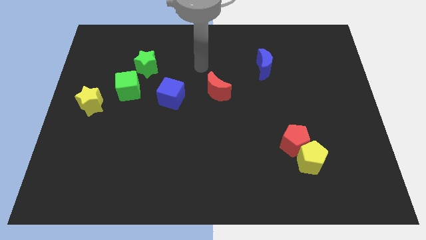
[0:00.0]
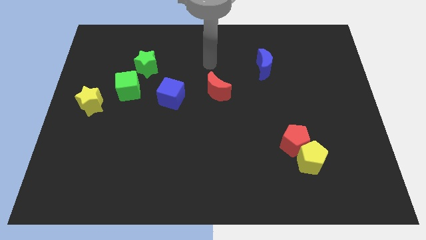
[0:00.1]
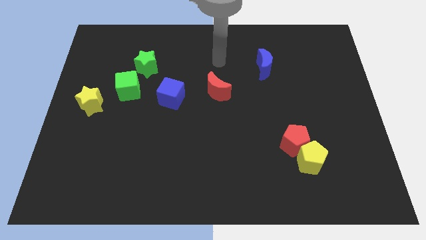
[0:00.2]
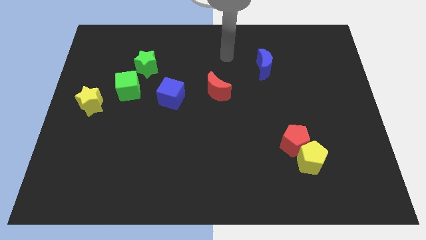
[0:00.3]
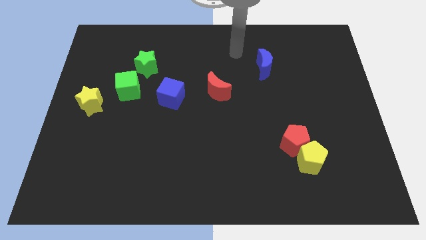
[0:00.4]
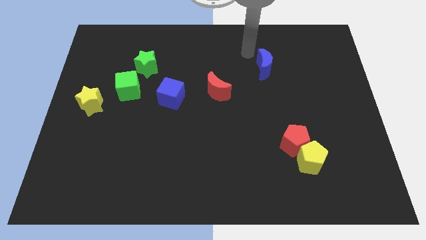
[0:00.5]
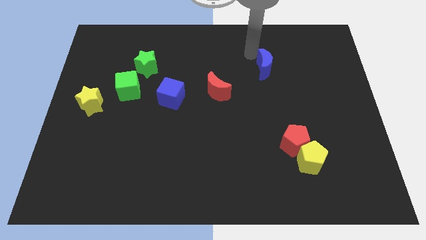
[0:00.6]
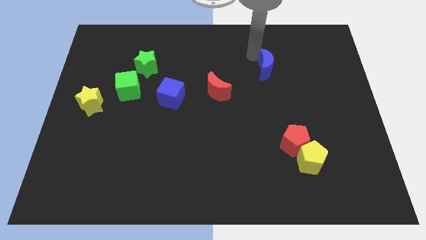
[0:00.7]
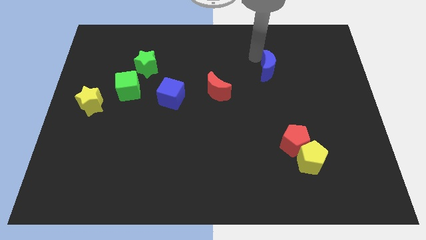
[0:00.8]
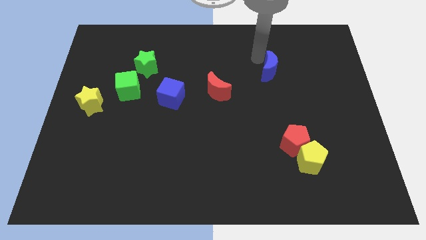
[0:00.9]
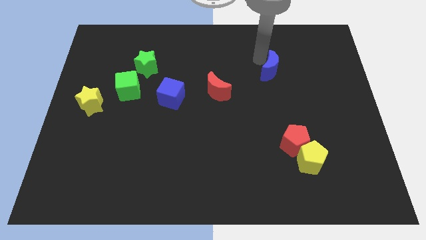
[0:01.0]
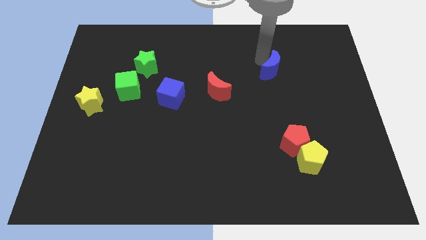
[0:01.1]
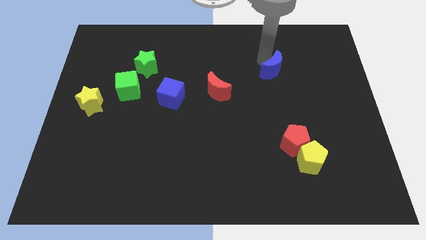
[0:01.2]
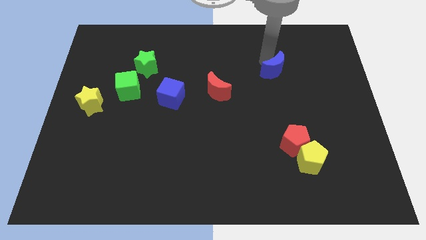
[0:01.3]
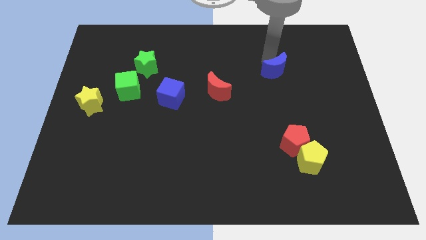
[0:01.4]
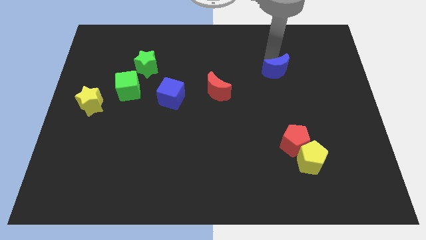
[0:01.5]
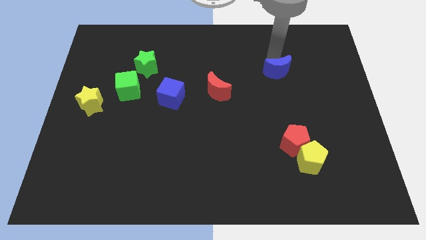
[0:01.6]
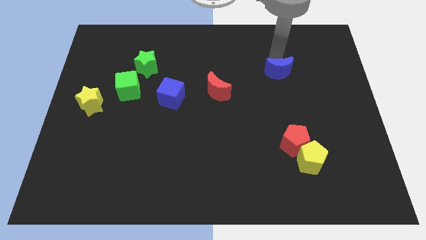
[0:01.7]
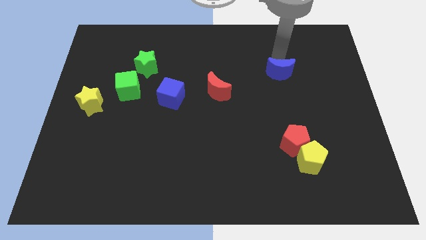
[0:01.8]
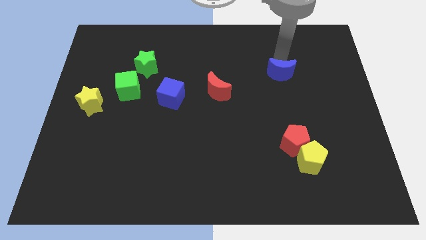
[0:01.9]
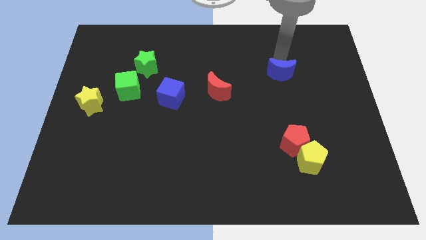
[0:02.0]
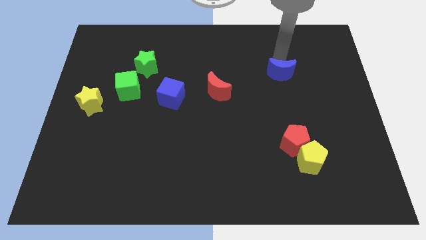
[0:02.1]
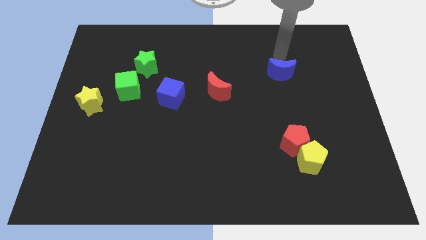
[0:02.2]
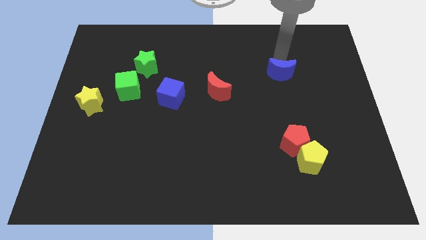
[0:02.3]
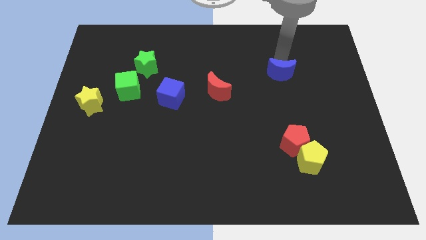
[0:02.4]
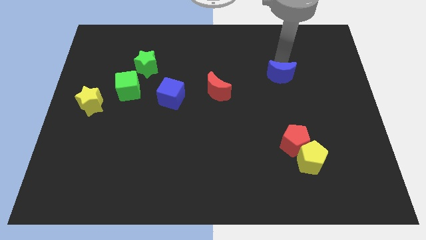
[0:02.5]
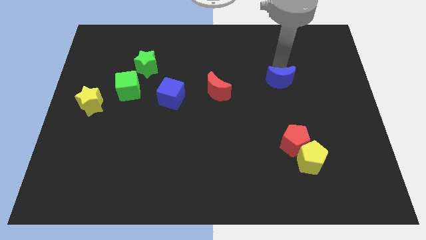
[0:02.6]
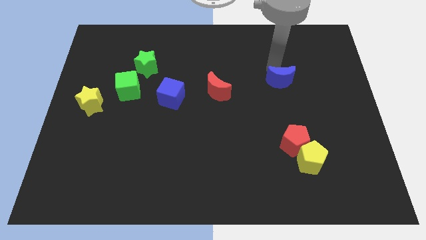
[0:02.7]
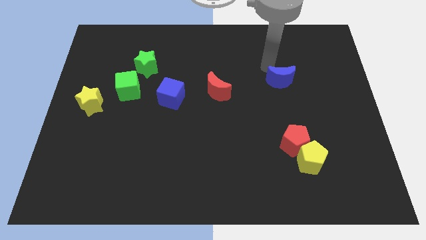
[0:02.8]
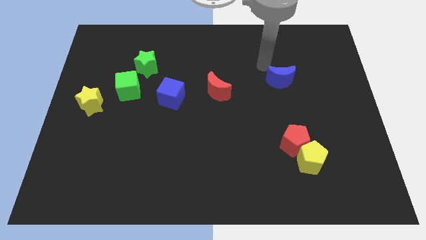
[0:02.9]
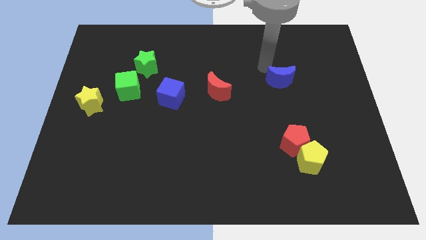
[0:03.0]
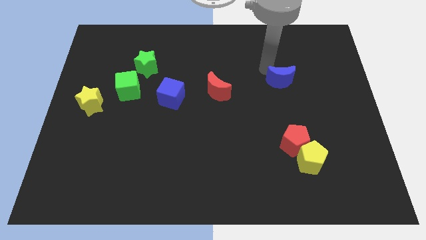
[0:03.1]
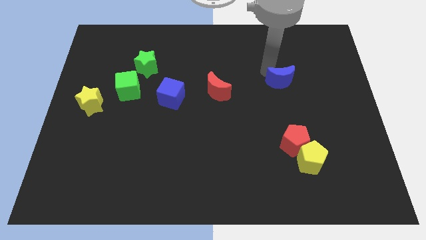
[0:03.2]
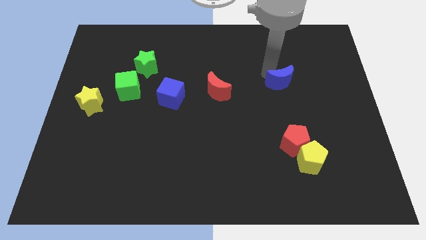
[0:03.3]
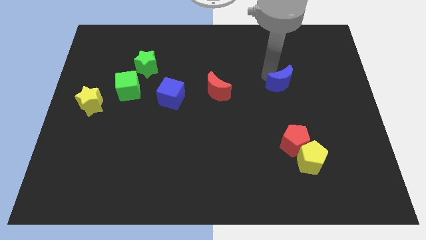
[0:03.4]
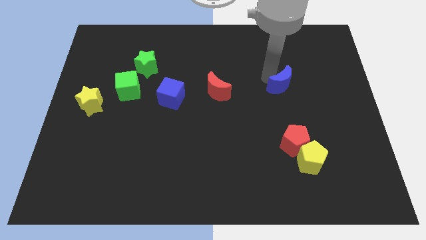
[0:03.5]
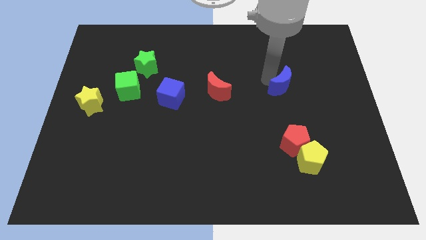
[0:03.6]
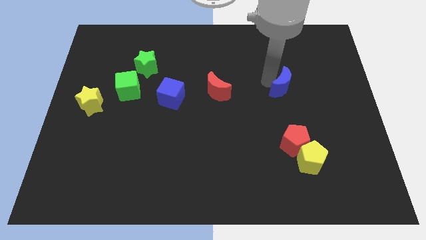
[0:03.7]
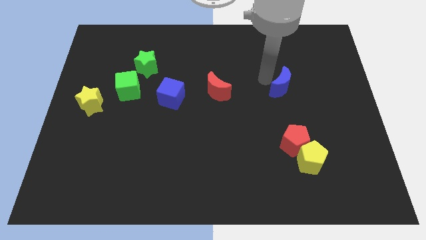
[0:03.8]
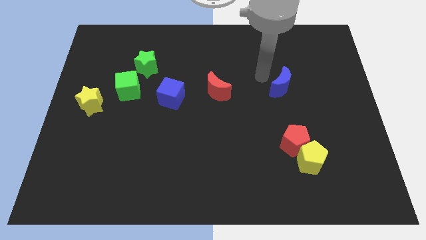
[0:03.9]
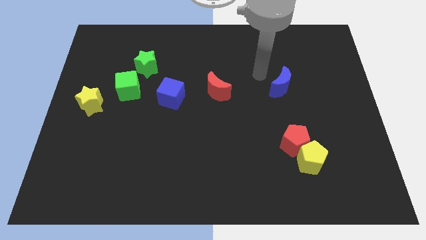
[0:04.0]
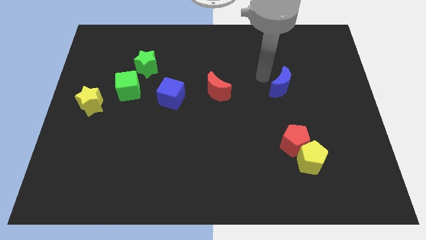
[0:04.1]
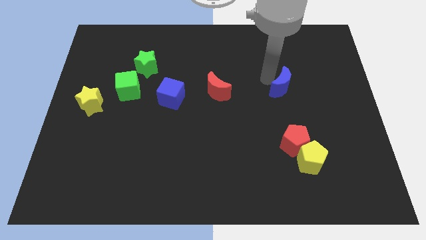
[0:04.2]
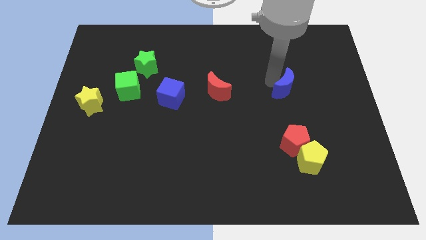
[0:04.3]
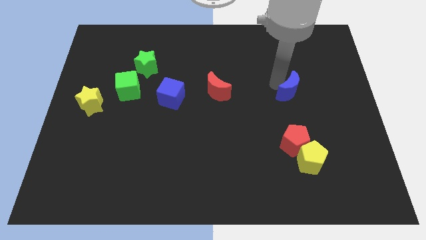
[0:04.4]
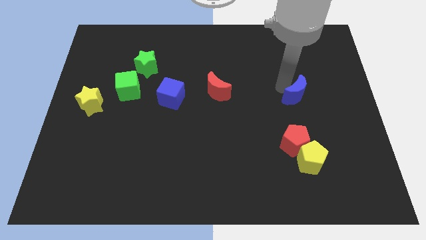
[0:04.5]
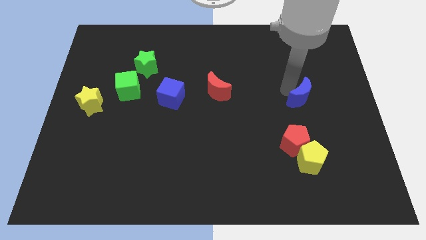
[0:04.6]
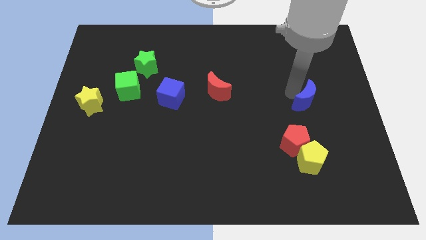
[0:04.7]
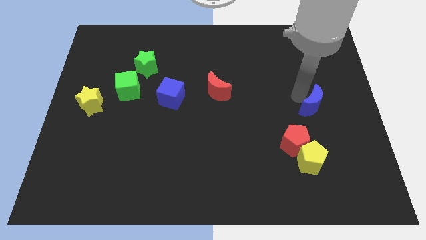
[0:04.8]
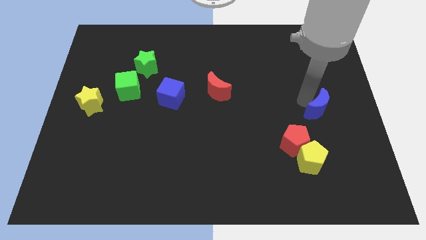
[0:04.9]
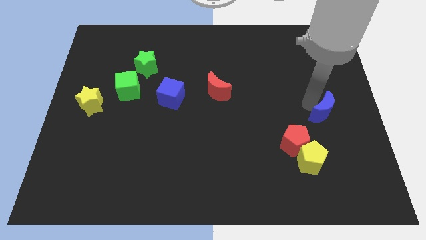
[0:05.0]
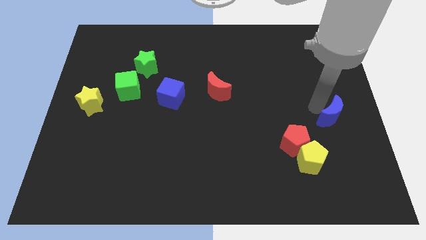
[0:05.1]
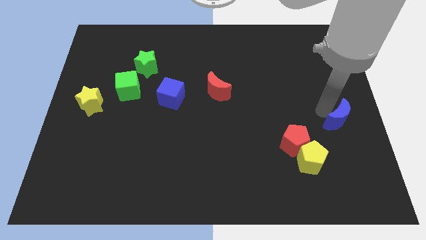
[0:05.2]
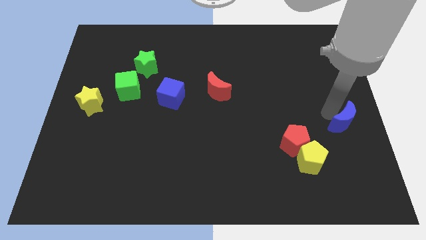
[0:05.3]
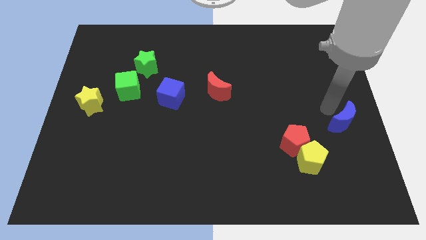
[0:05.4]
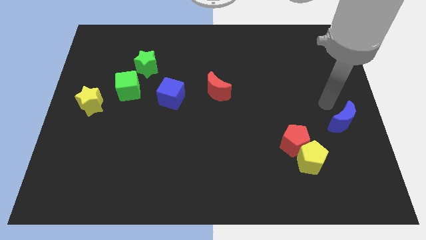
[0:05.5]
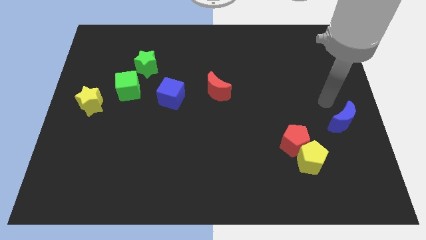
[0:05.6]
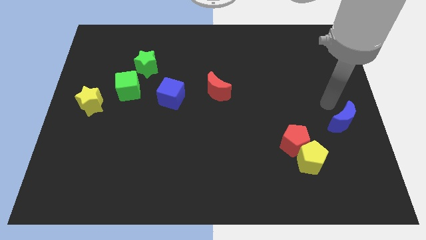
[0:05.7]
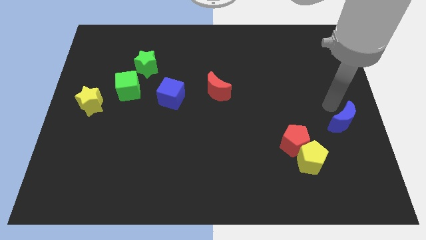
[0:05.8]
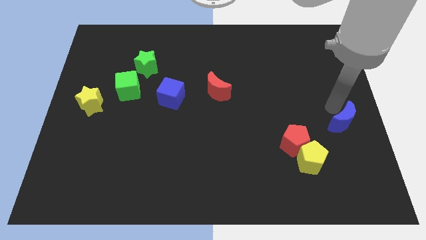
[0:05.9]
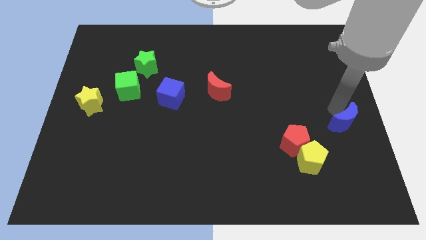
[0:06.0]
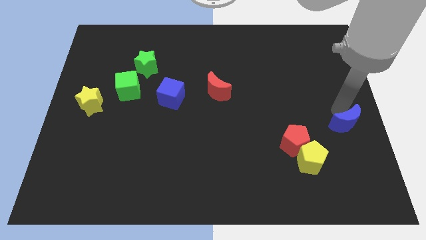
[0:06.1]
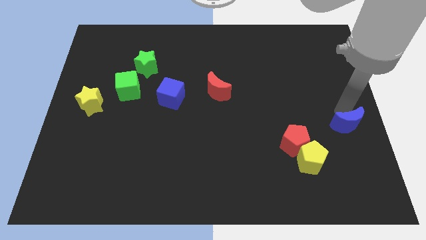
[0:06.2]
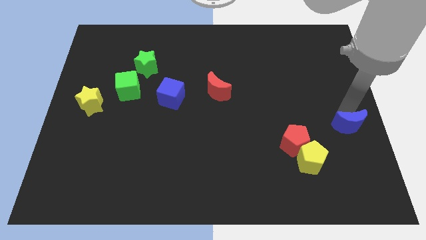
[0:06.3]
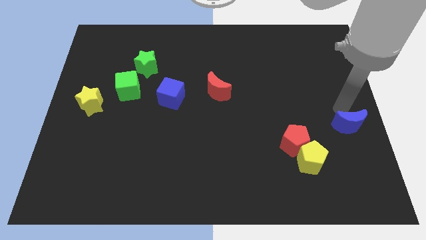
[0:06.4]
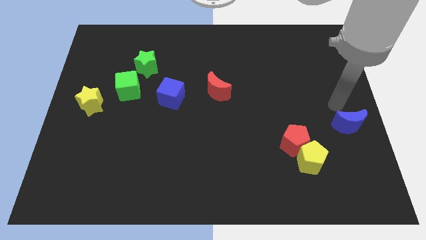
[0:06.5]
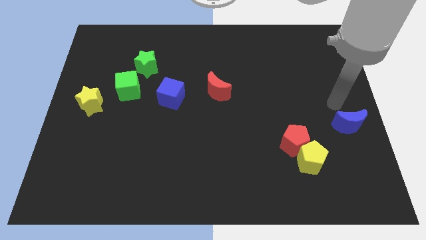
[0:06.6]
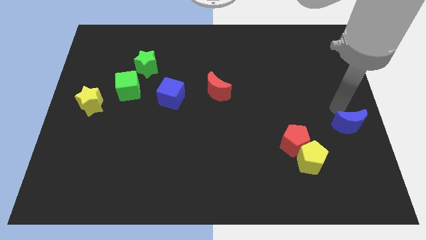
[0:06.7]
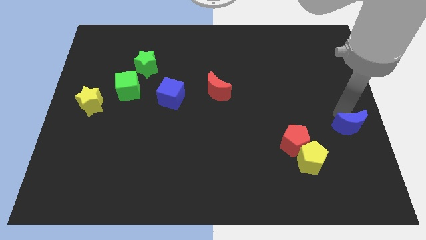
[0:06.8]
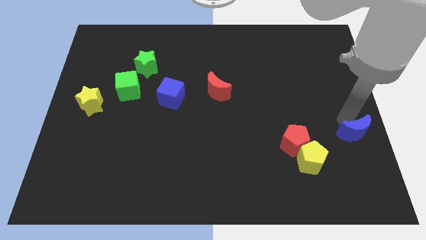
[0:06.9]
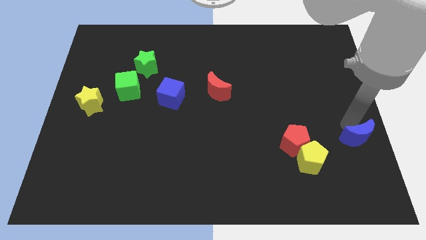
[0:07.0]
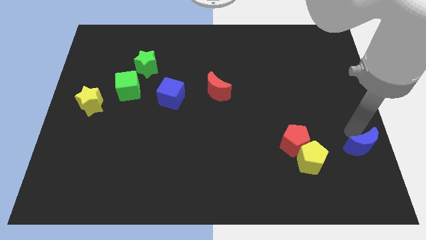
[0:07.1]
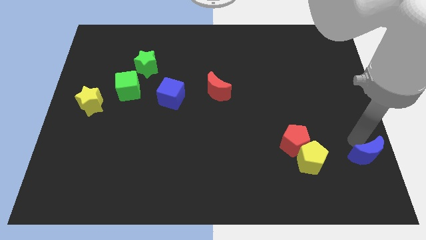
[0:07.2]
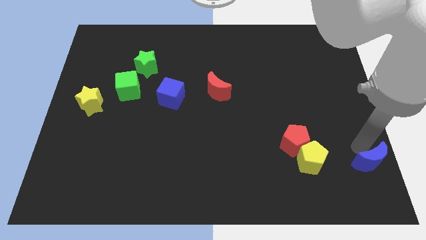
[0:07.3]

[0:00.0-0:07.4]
put the blue moon to the bottom right corner
